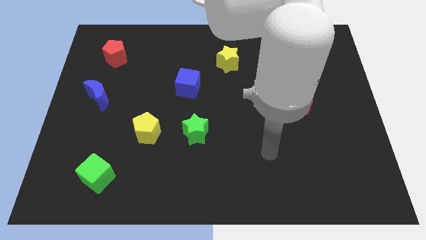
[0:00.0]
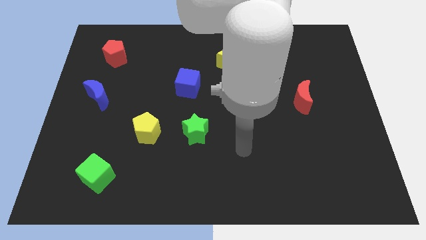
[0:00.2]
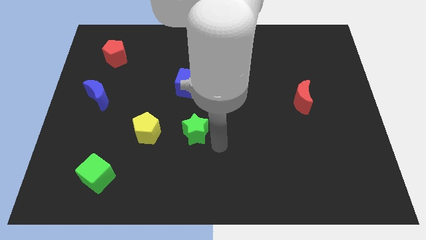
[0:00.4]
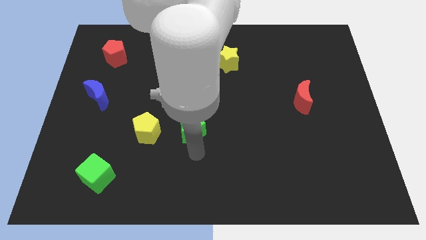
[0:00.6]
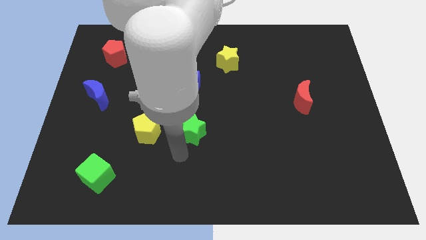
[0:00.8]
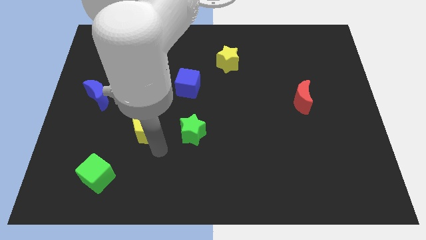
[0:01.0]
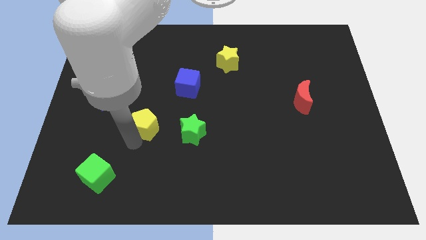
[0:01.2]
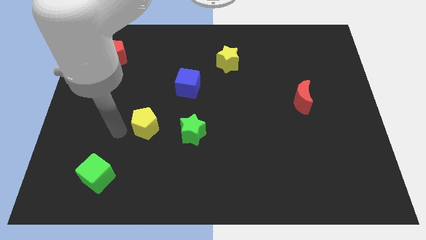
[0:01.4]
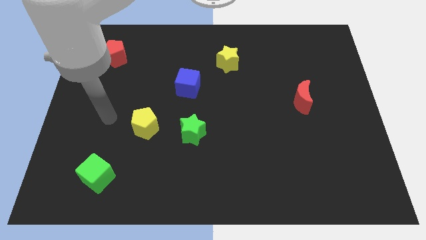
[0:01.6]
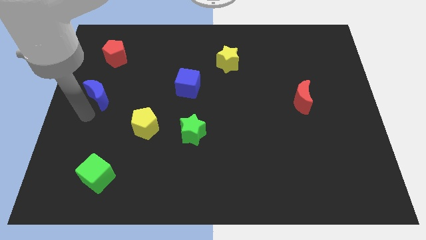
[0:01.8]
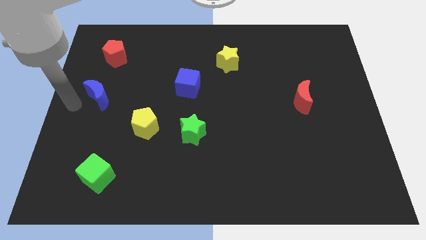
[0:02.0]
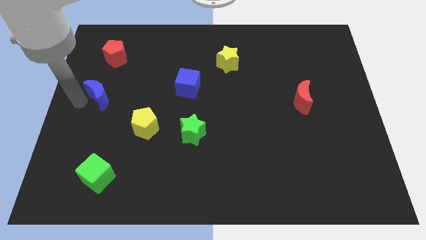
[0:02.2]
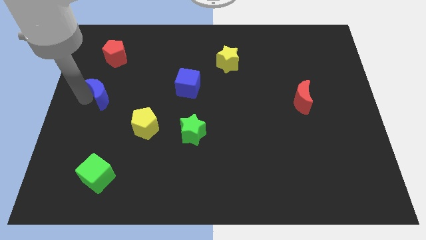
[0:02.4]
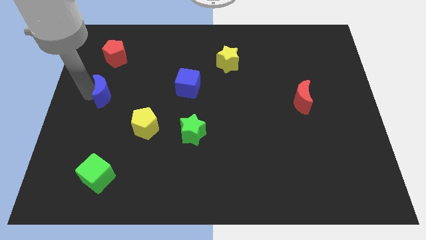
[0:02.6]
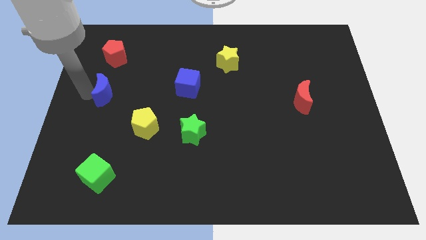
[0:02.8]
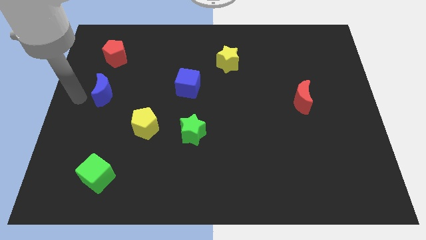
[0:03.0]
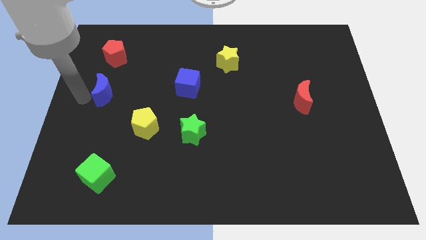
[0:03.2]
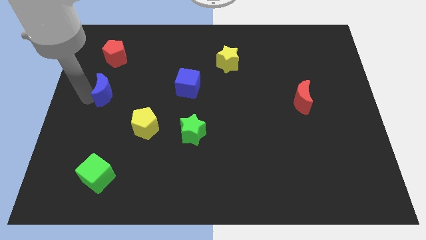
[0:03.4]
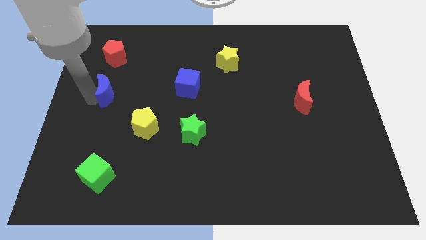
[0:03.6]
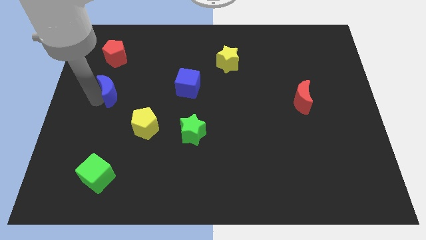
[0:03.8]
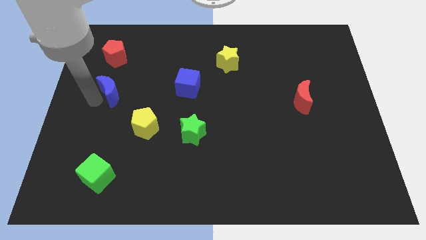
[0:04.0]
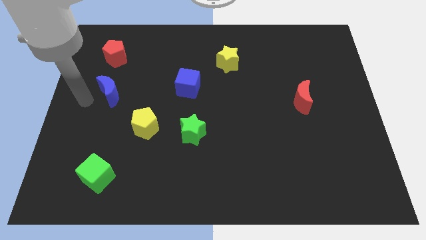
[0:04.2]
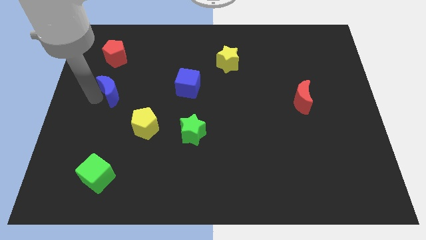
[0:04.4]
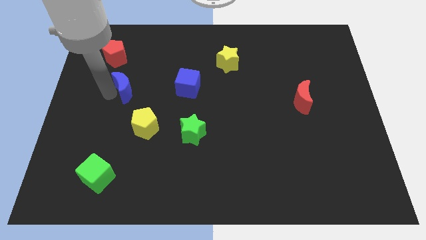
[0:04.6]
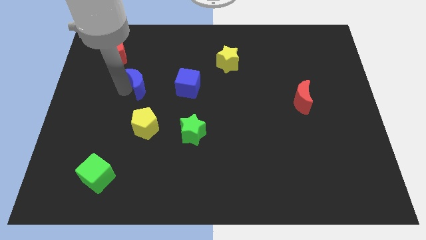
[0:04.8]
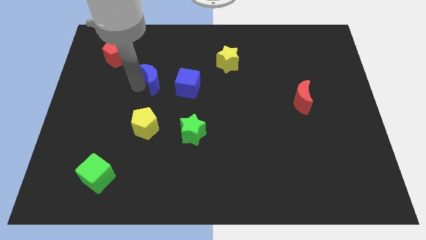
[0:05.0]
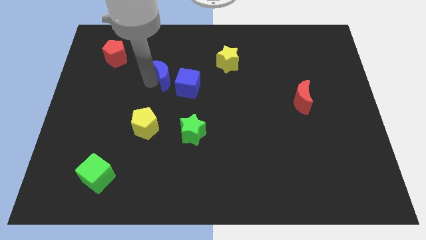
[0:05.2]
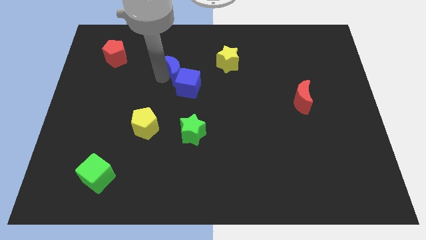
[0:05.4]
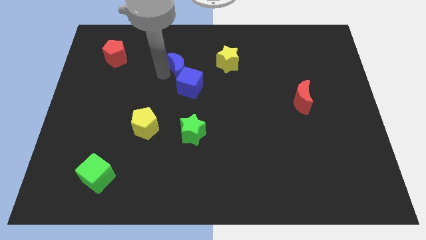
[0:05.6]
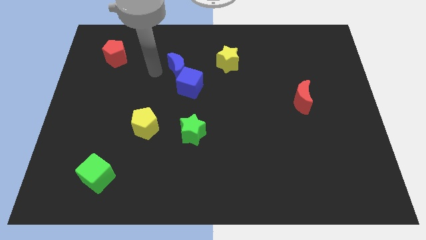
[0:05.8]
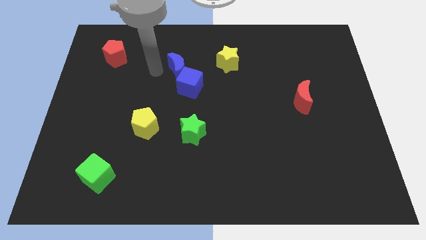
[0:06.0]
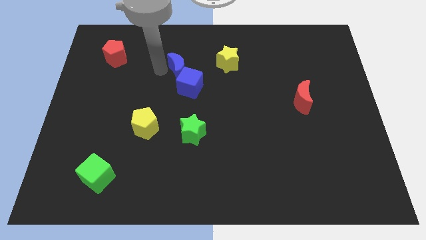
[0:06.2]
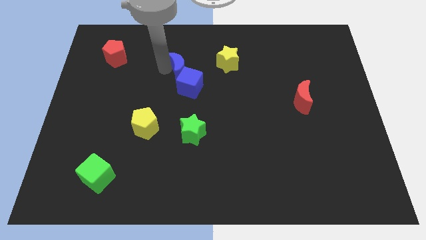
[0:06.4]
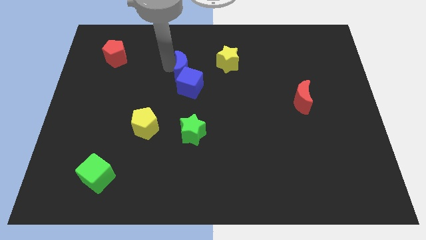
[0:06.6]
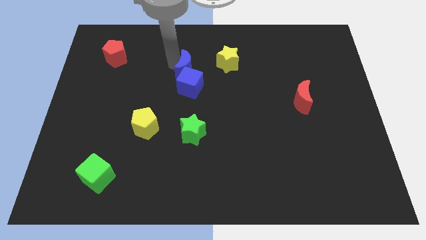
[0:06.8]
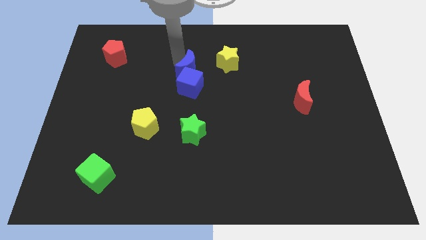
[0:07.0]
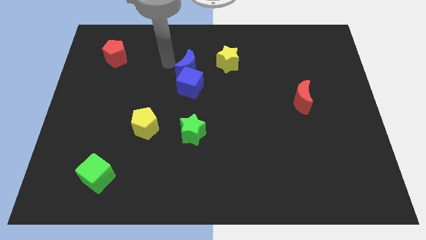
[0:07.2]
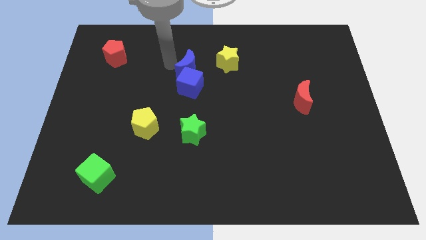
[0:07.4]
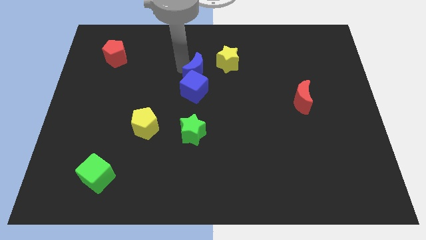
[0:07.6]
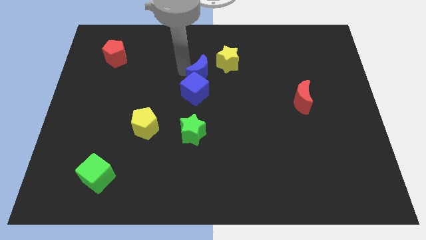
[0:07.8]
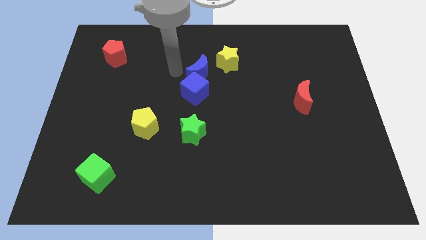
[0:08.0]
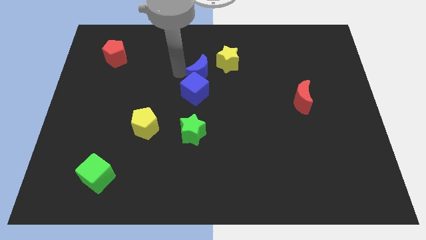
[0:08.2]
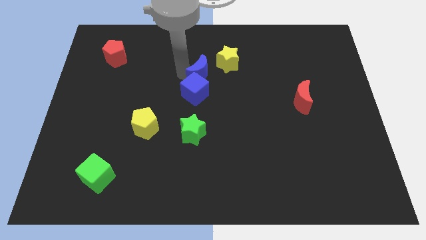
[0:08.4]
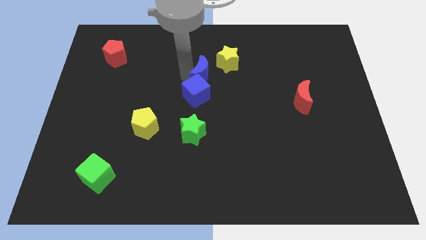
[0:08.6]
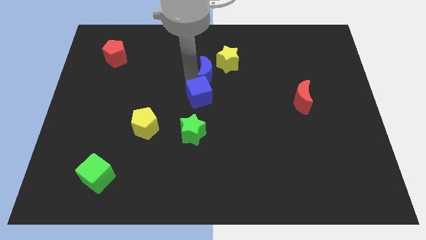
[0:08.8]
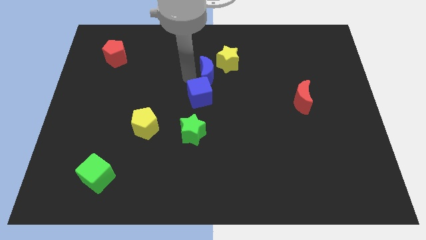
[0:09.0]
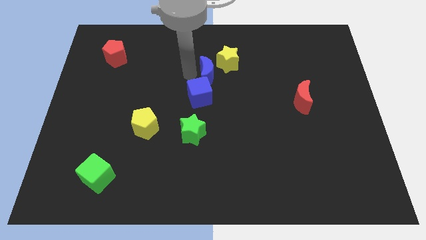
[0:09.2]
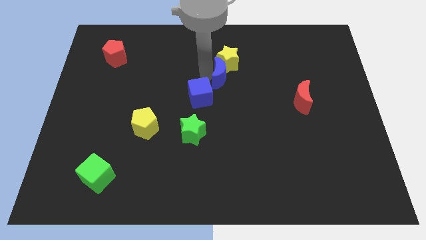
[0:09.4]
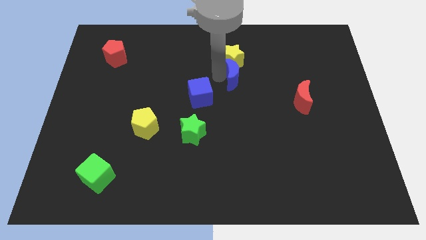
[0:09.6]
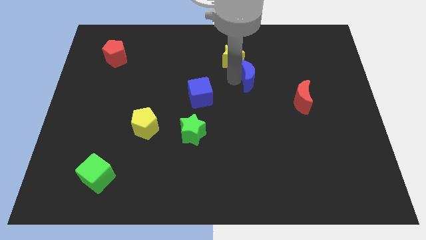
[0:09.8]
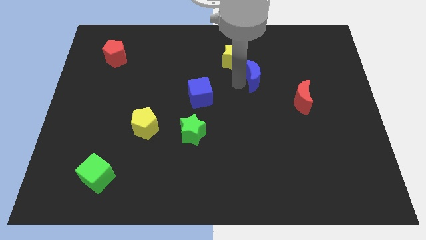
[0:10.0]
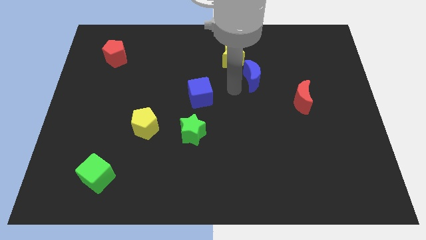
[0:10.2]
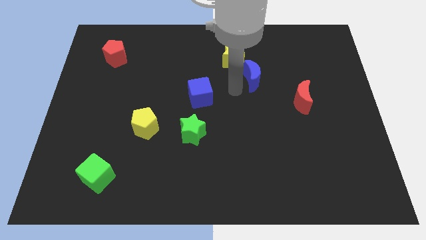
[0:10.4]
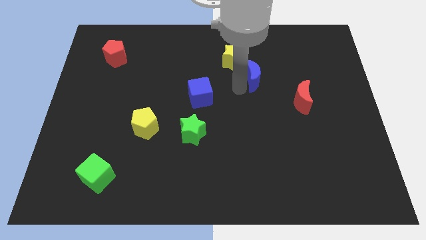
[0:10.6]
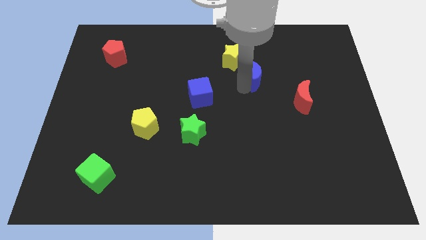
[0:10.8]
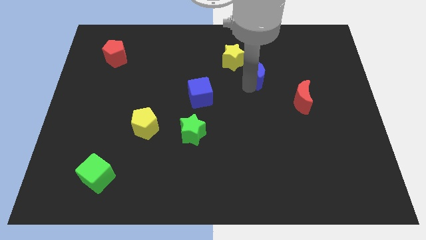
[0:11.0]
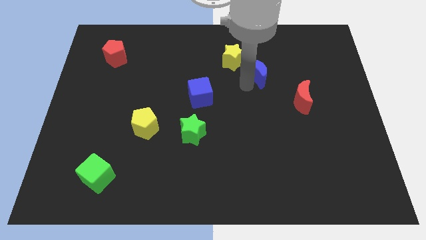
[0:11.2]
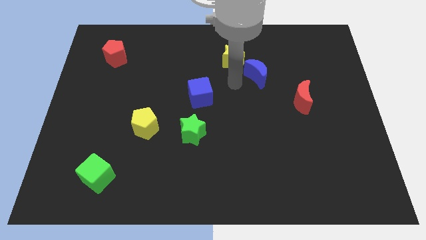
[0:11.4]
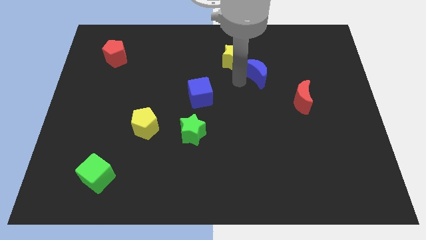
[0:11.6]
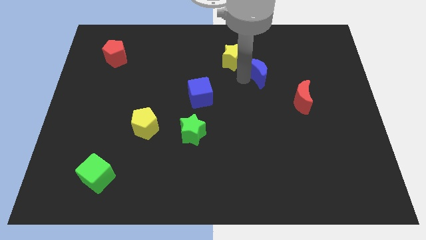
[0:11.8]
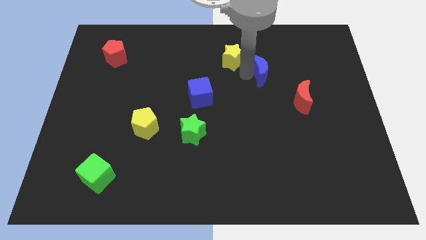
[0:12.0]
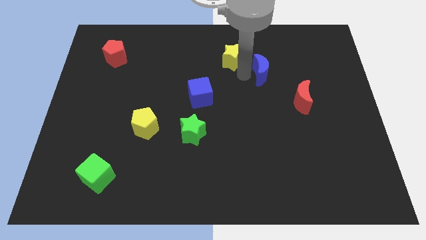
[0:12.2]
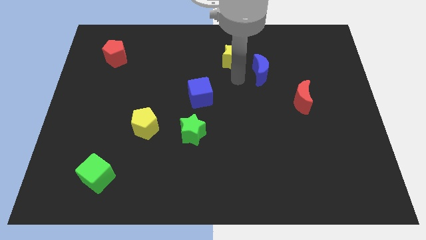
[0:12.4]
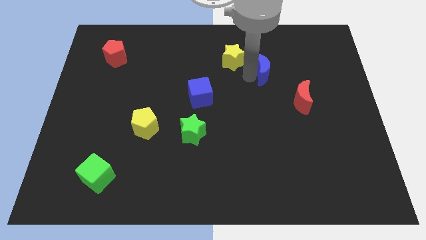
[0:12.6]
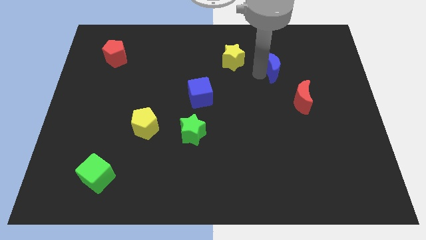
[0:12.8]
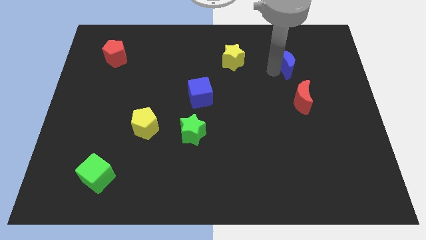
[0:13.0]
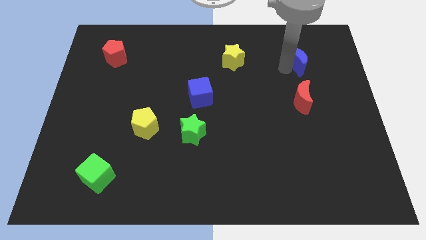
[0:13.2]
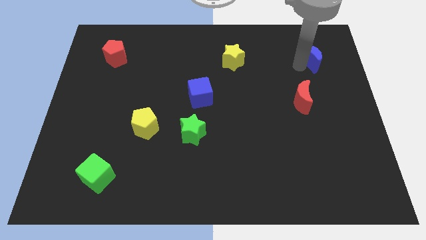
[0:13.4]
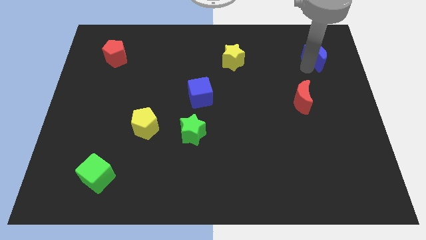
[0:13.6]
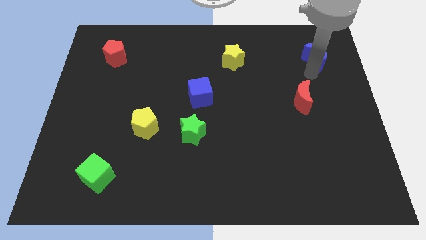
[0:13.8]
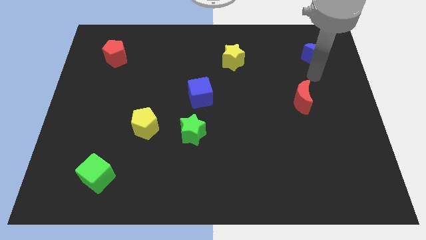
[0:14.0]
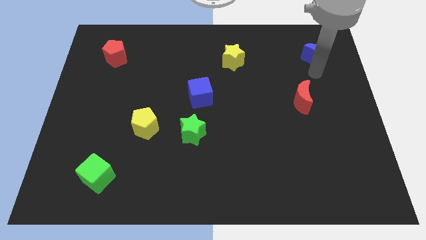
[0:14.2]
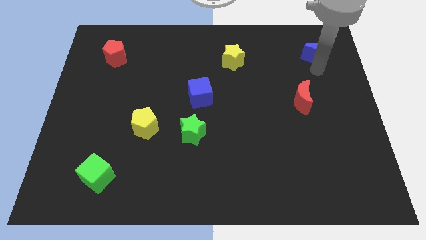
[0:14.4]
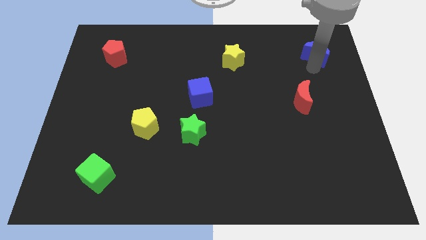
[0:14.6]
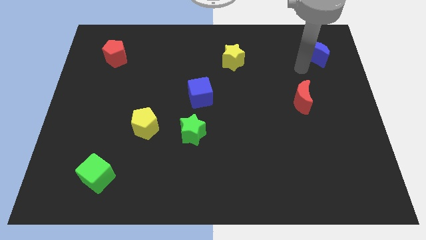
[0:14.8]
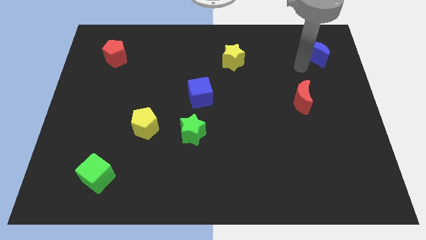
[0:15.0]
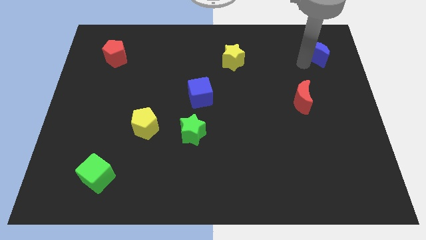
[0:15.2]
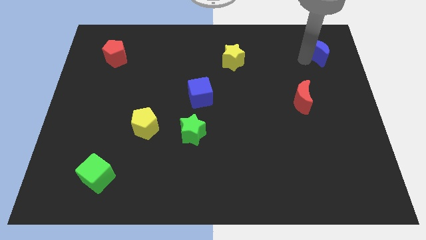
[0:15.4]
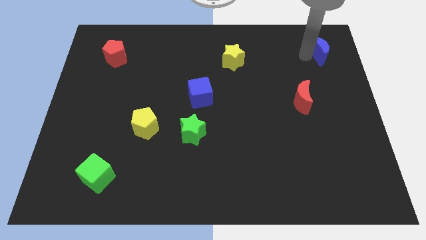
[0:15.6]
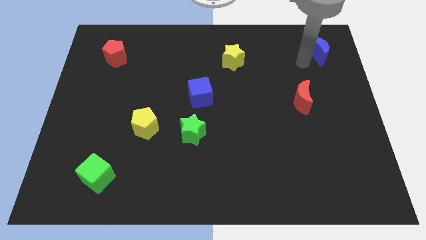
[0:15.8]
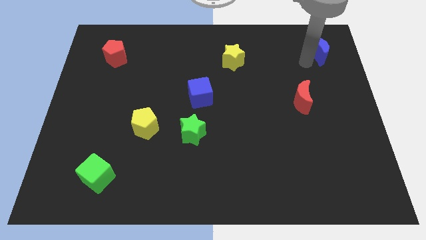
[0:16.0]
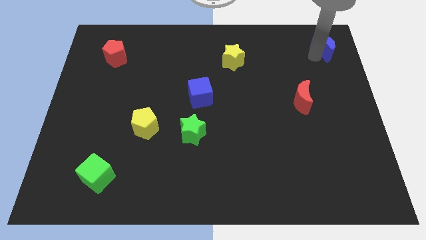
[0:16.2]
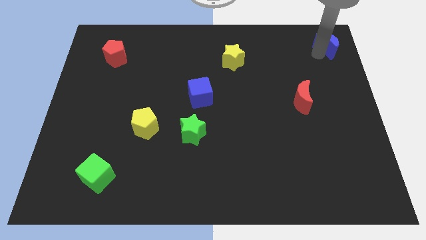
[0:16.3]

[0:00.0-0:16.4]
push the blue moon to the top right
